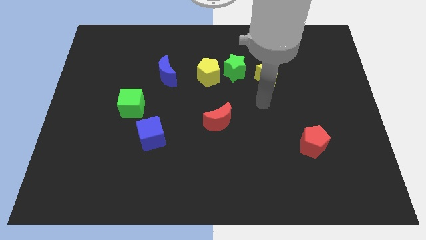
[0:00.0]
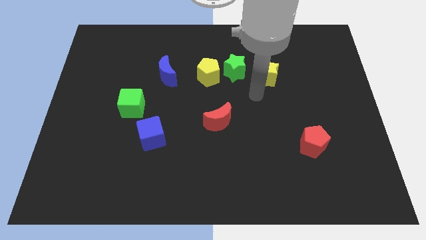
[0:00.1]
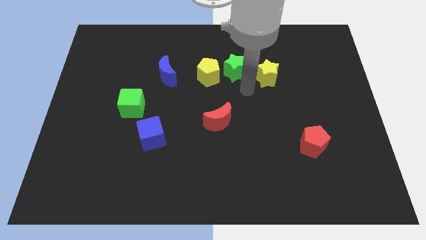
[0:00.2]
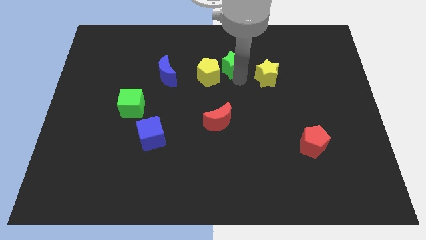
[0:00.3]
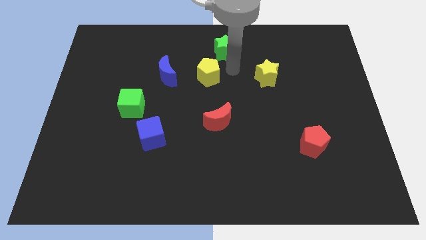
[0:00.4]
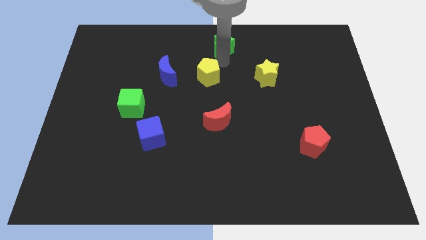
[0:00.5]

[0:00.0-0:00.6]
pull the yellow pentagon apart from the green star

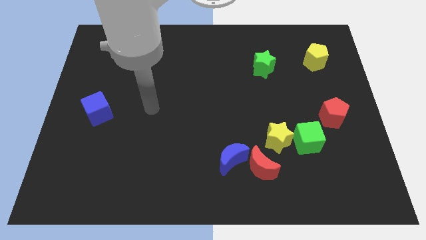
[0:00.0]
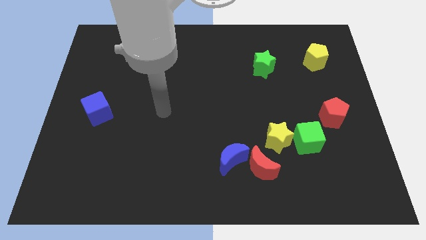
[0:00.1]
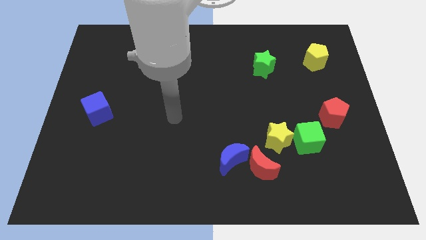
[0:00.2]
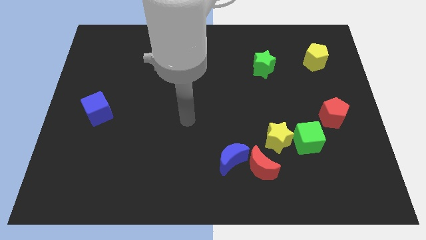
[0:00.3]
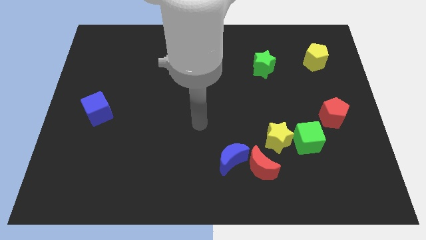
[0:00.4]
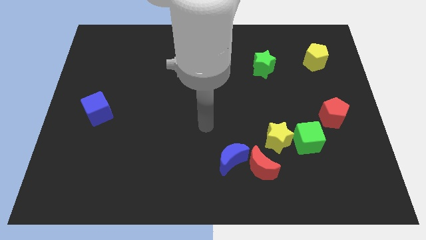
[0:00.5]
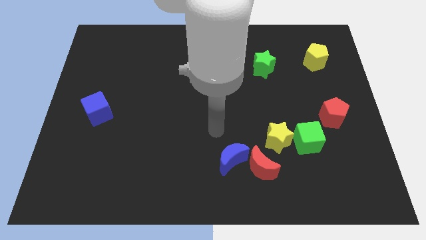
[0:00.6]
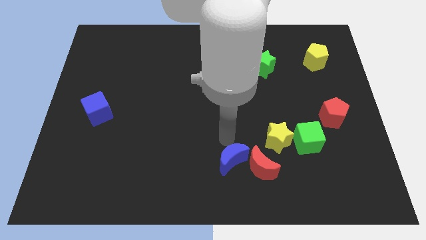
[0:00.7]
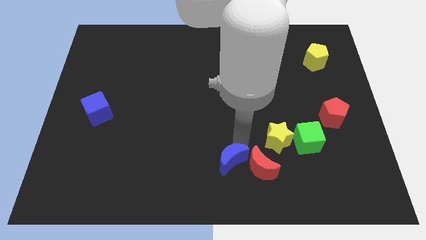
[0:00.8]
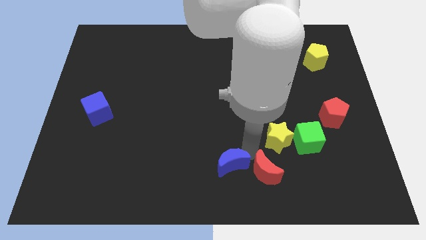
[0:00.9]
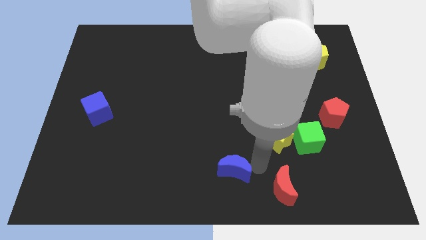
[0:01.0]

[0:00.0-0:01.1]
move the blue moon away from the red moon

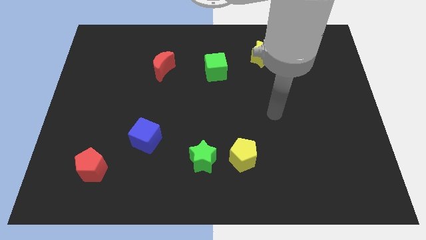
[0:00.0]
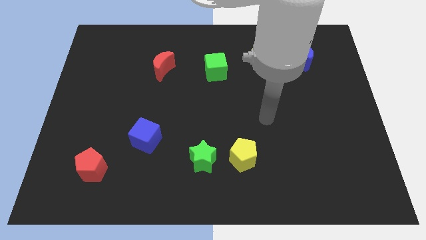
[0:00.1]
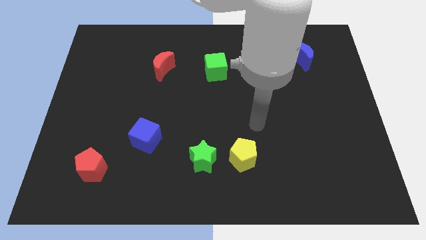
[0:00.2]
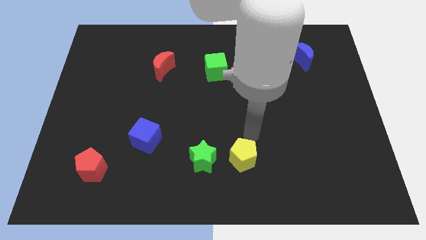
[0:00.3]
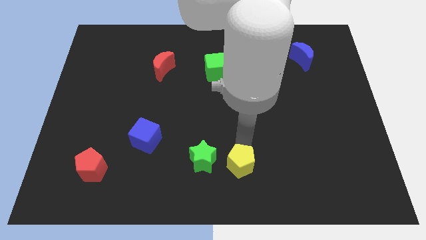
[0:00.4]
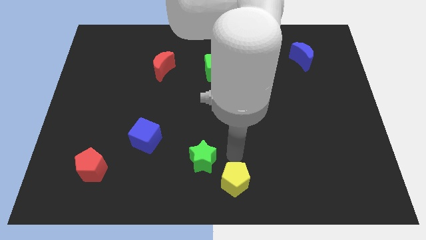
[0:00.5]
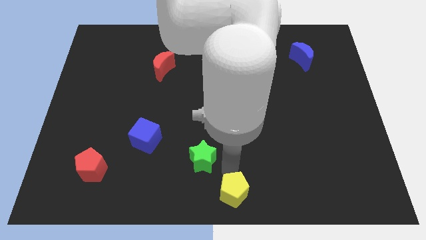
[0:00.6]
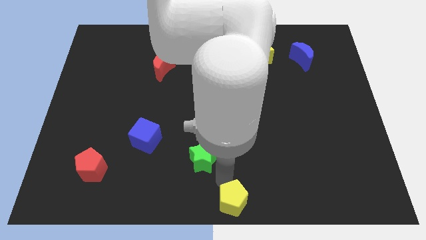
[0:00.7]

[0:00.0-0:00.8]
move the green star away from the yellow pentagon

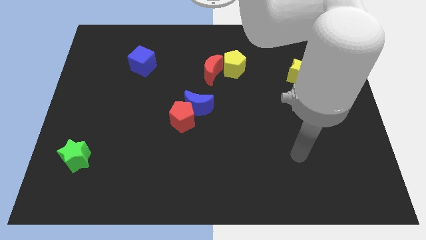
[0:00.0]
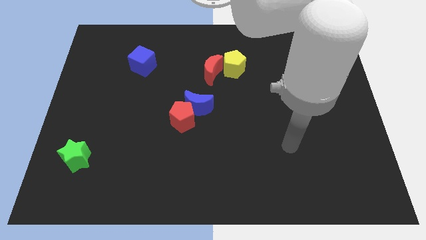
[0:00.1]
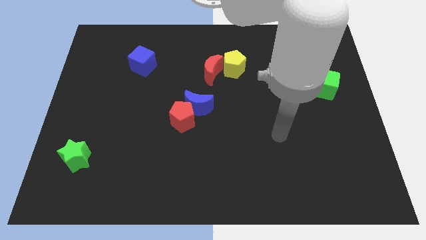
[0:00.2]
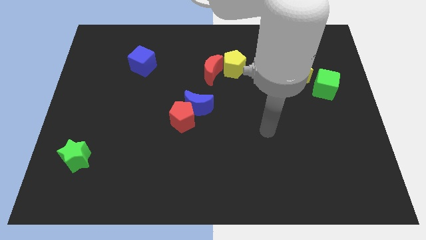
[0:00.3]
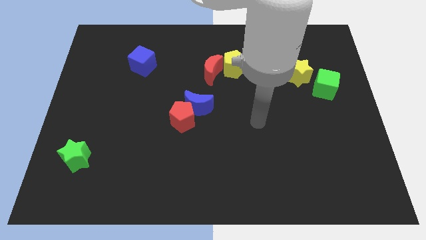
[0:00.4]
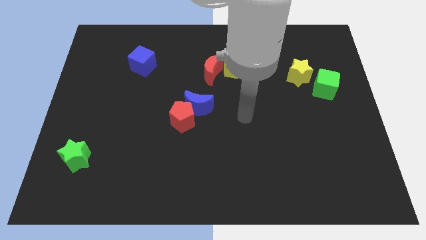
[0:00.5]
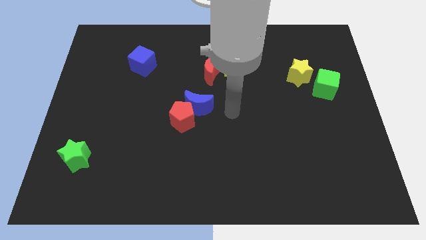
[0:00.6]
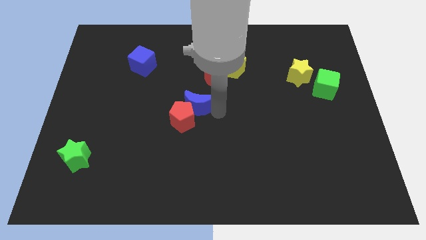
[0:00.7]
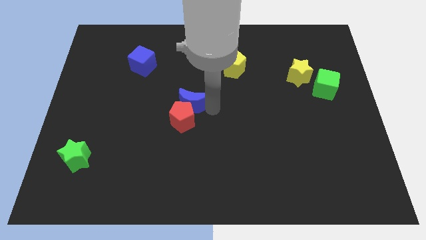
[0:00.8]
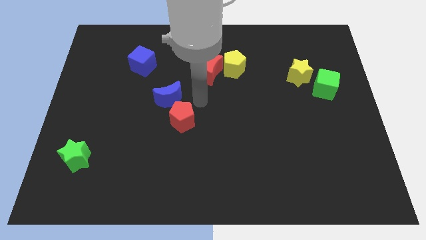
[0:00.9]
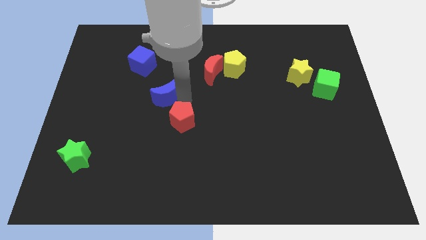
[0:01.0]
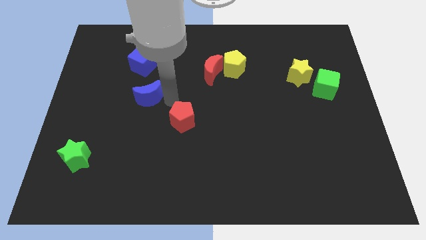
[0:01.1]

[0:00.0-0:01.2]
move the red pentagon away from the blue moon

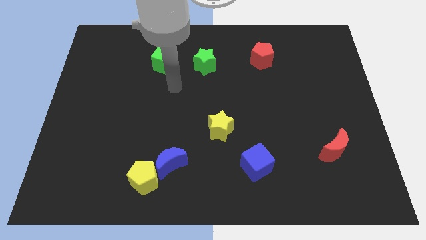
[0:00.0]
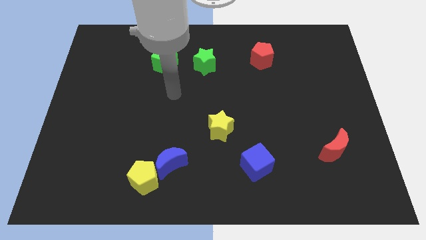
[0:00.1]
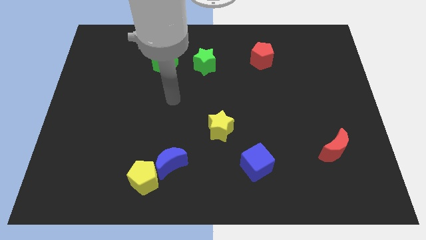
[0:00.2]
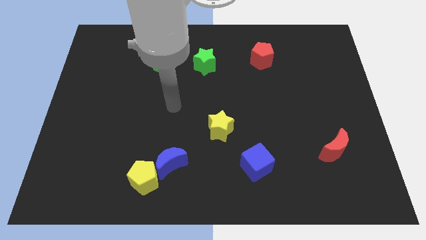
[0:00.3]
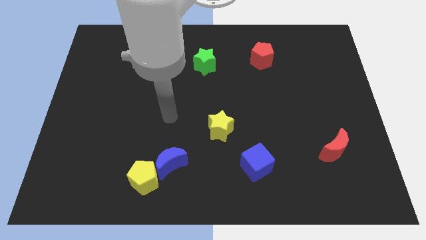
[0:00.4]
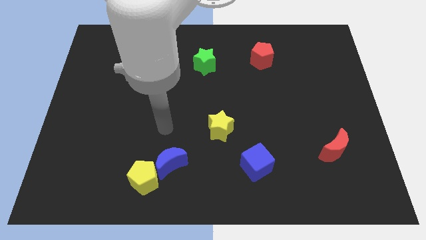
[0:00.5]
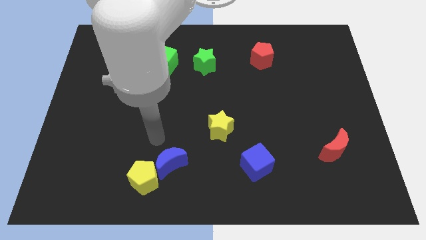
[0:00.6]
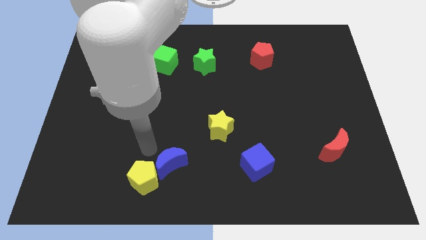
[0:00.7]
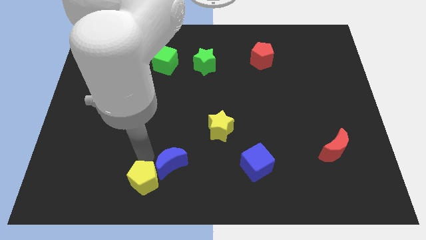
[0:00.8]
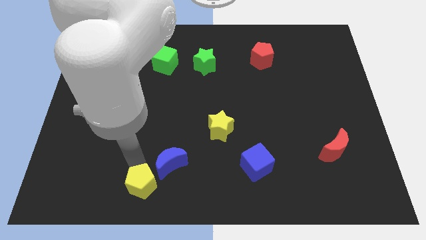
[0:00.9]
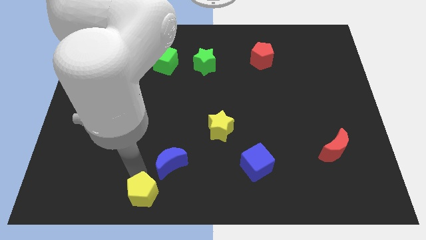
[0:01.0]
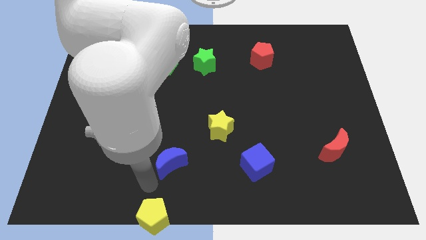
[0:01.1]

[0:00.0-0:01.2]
separate the blue moon from the yellow pentagon

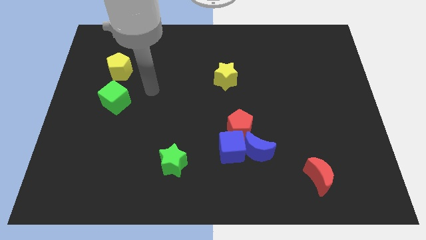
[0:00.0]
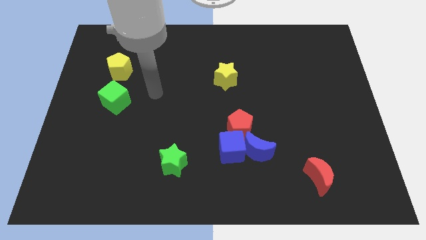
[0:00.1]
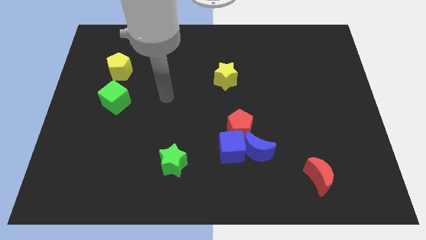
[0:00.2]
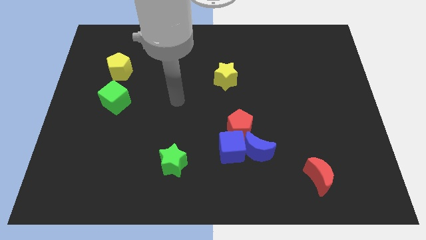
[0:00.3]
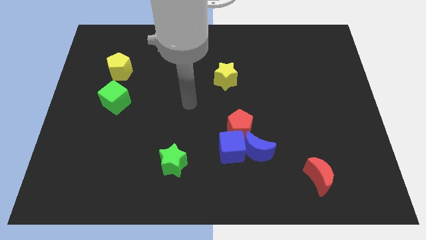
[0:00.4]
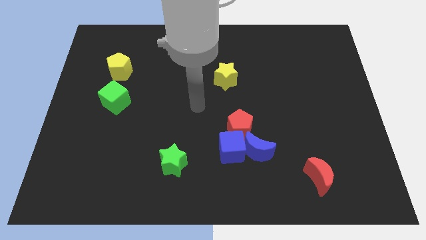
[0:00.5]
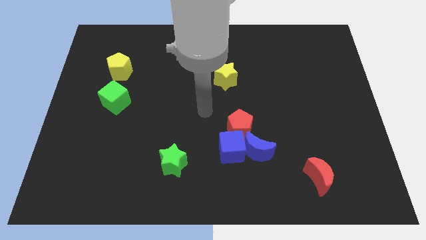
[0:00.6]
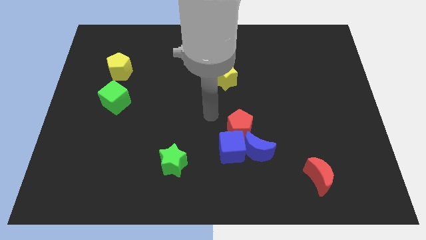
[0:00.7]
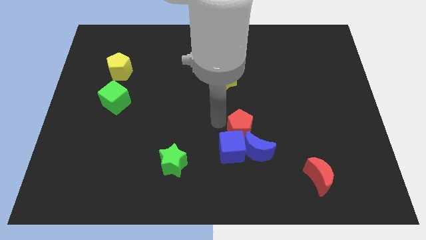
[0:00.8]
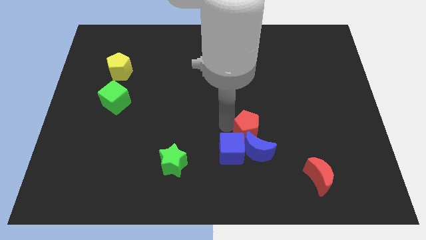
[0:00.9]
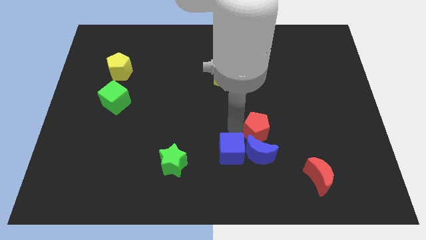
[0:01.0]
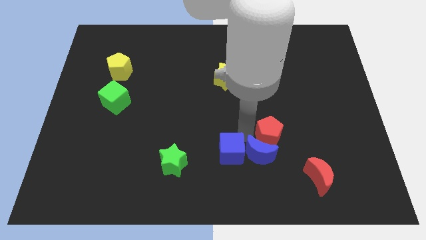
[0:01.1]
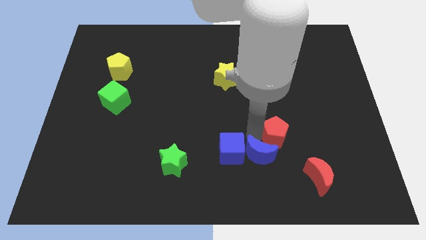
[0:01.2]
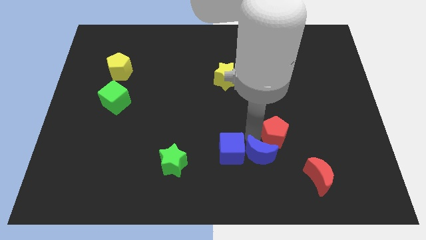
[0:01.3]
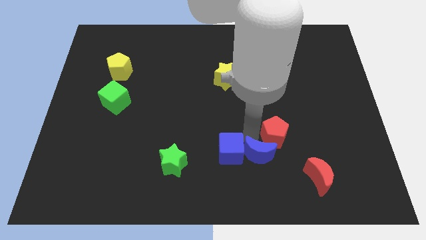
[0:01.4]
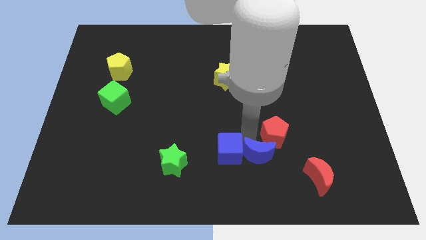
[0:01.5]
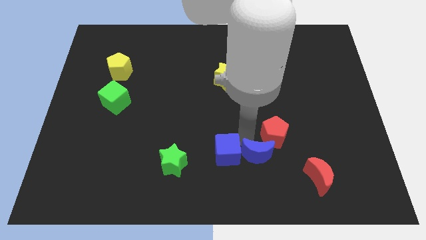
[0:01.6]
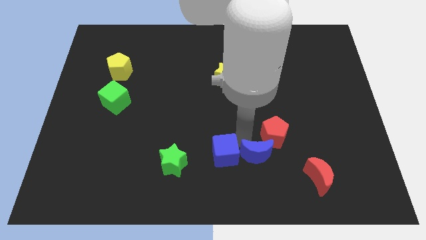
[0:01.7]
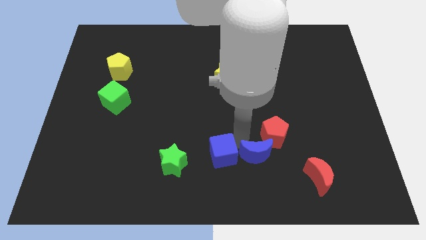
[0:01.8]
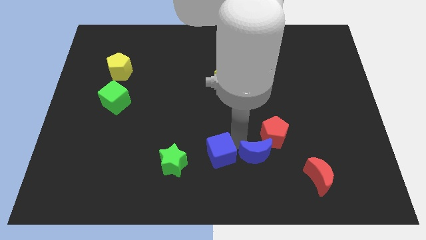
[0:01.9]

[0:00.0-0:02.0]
pull the blue cube apart from the blue moon and red pentagon

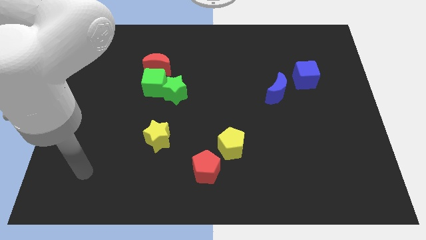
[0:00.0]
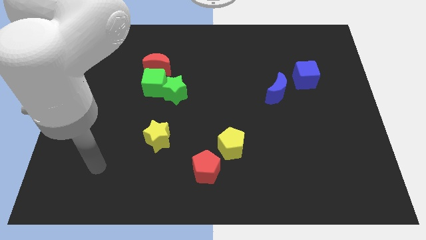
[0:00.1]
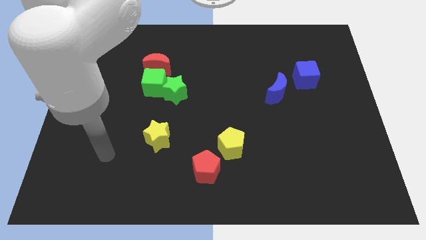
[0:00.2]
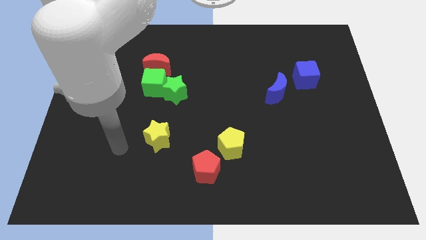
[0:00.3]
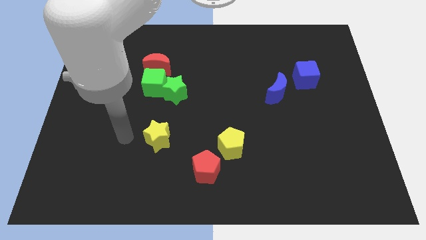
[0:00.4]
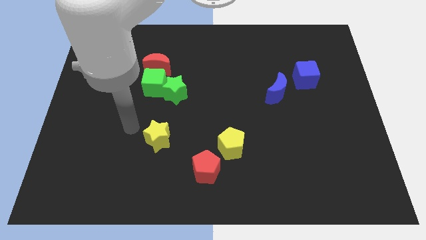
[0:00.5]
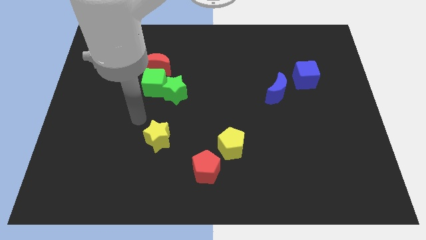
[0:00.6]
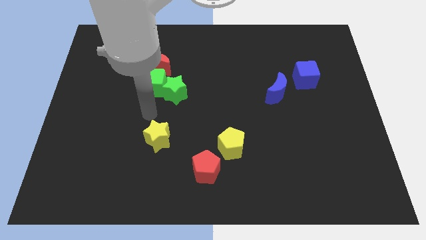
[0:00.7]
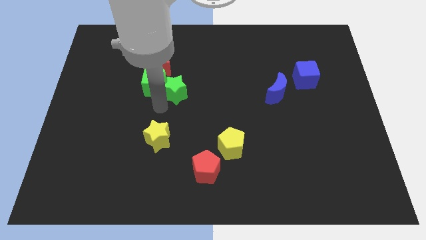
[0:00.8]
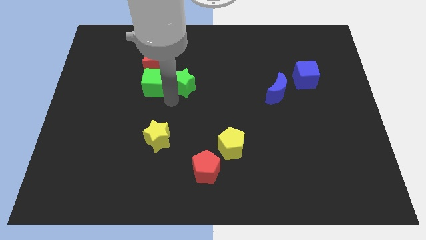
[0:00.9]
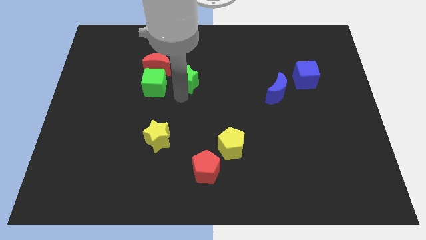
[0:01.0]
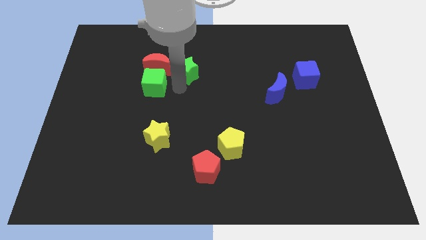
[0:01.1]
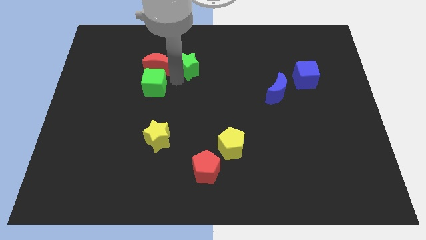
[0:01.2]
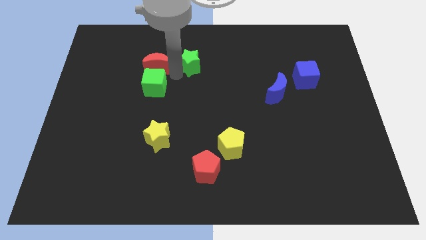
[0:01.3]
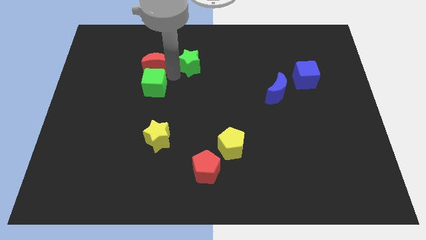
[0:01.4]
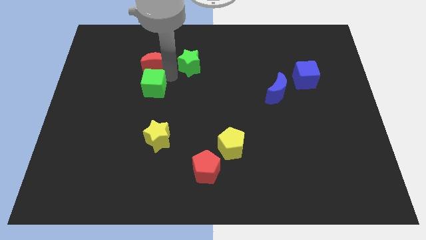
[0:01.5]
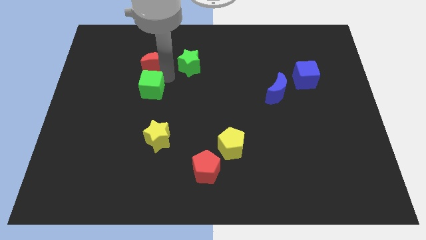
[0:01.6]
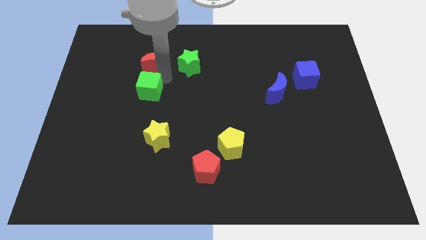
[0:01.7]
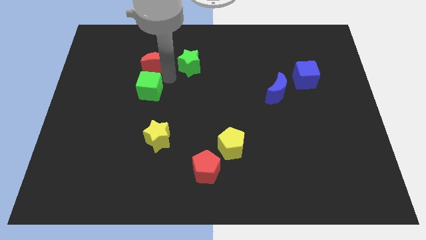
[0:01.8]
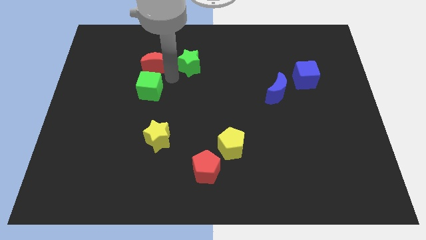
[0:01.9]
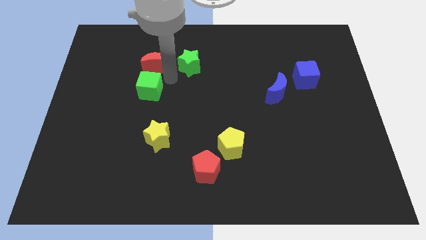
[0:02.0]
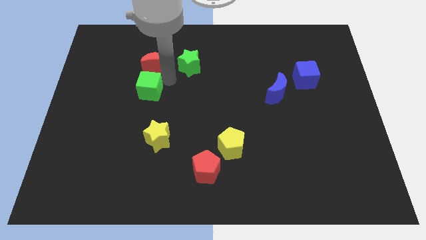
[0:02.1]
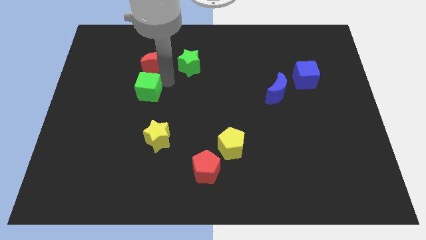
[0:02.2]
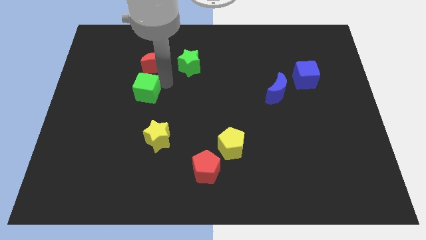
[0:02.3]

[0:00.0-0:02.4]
move the green cube away from the green star and red moon
